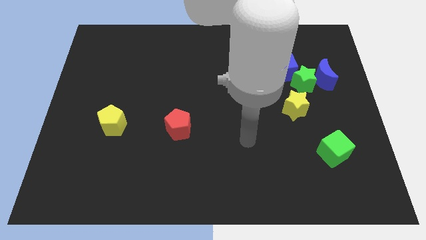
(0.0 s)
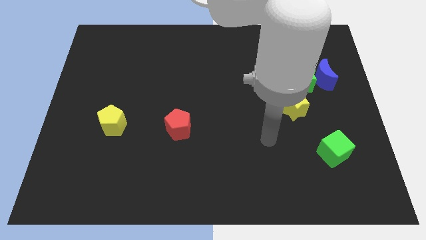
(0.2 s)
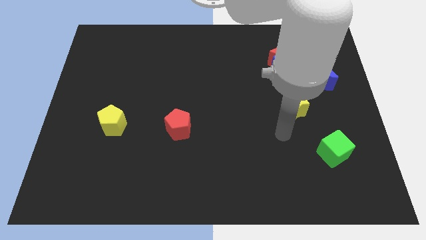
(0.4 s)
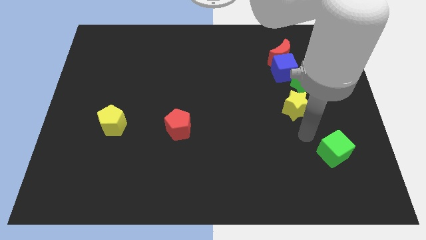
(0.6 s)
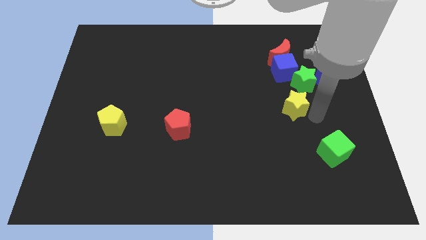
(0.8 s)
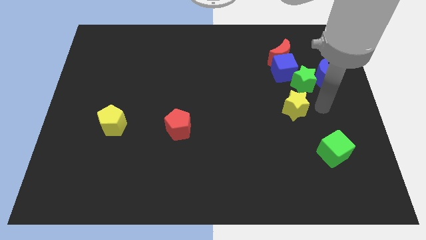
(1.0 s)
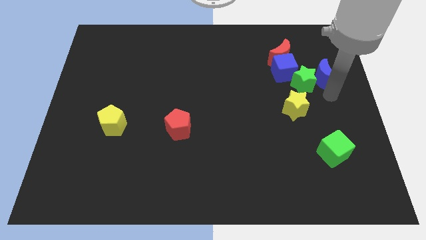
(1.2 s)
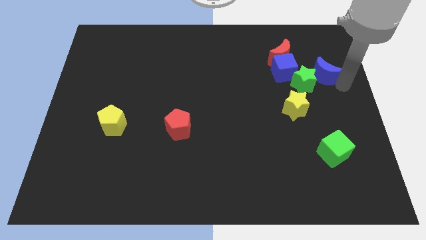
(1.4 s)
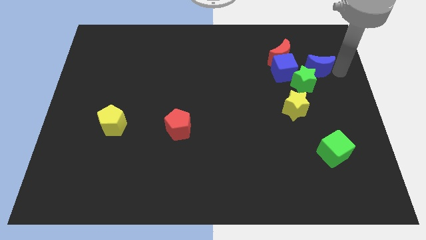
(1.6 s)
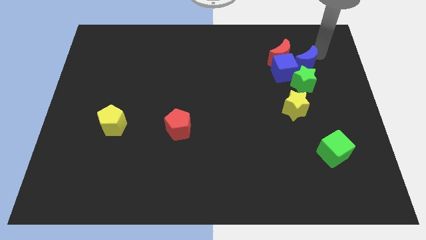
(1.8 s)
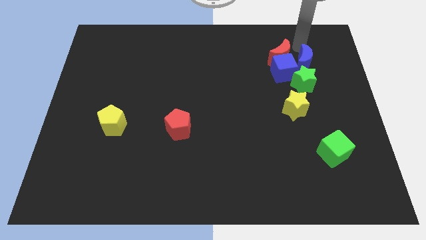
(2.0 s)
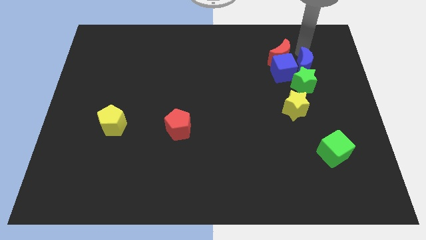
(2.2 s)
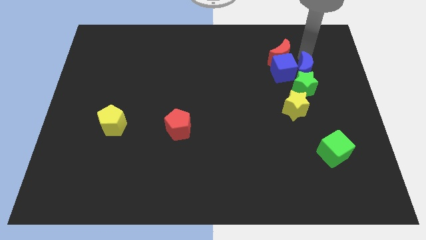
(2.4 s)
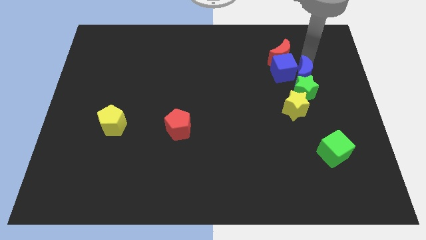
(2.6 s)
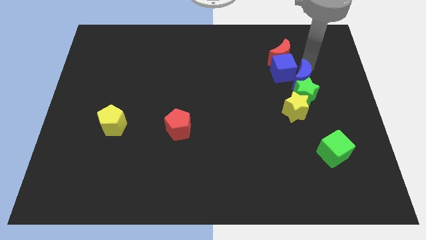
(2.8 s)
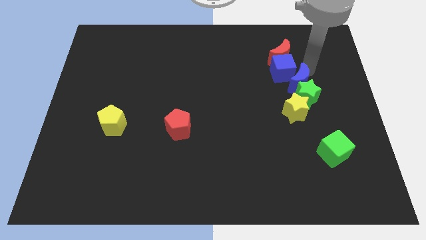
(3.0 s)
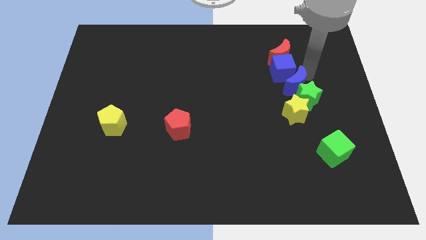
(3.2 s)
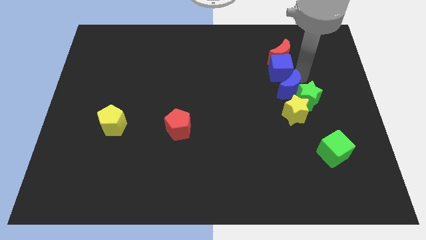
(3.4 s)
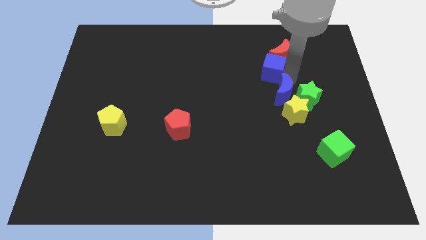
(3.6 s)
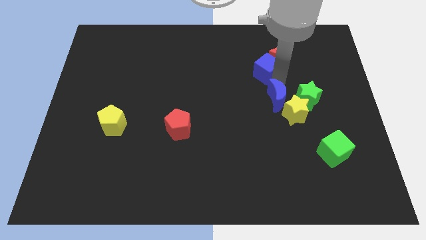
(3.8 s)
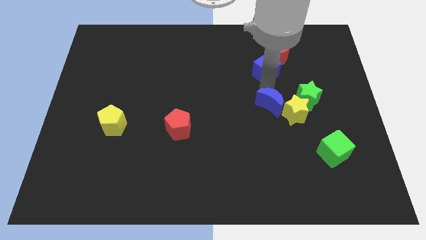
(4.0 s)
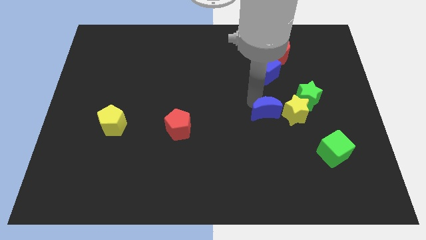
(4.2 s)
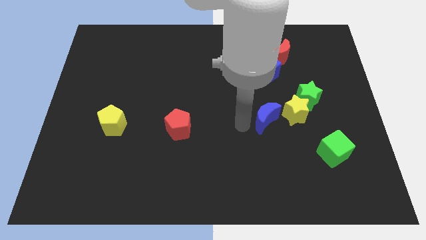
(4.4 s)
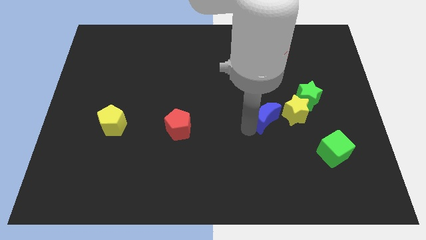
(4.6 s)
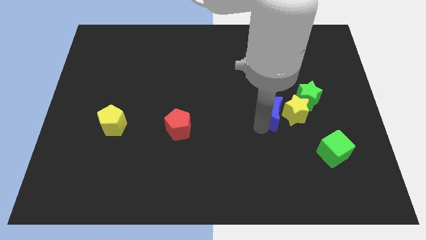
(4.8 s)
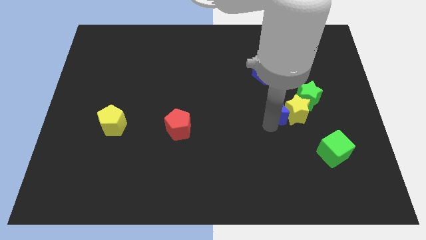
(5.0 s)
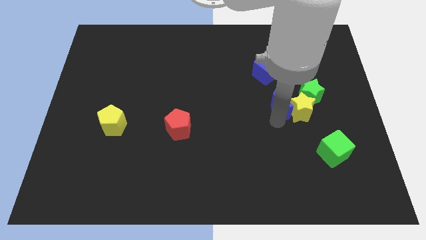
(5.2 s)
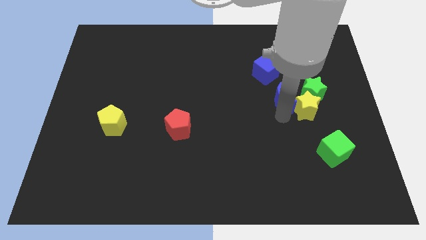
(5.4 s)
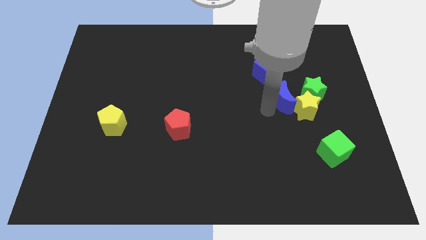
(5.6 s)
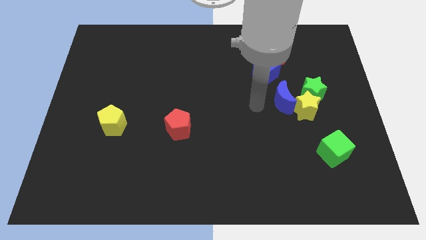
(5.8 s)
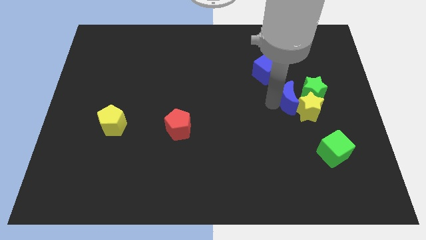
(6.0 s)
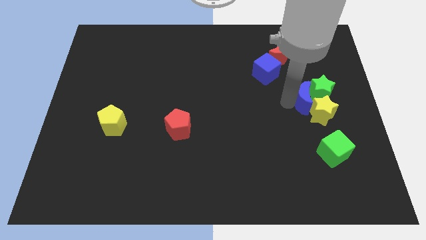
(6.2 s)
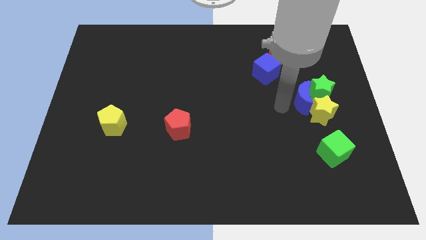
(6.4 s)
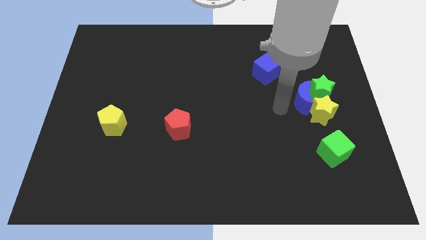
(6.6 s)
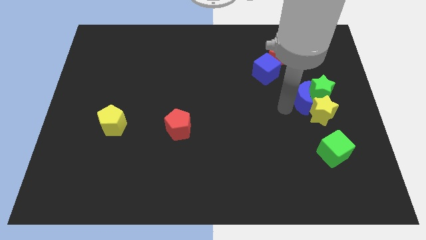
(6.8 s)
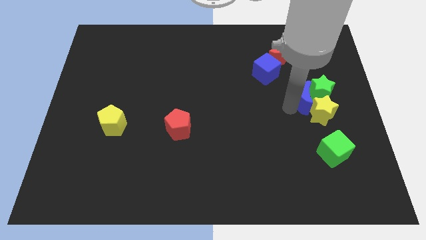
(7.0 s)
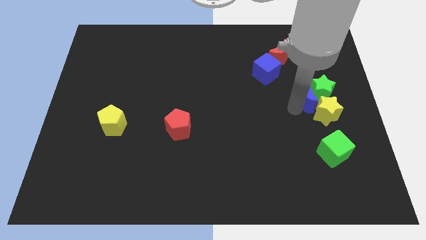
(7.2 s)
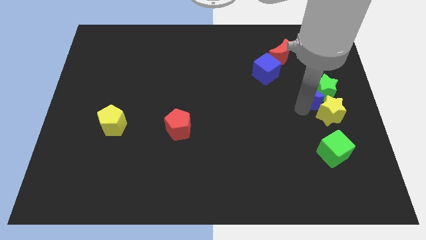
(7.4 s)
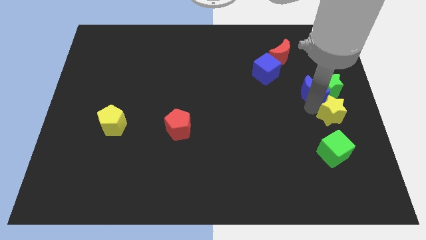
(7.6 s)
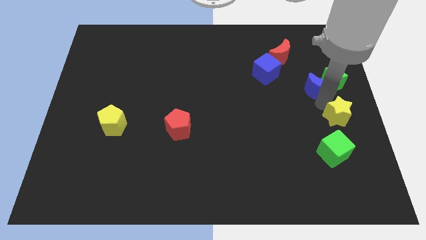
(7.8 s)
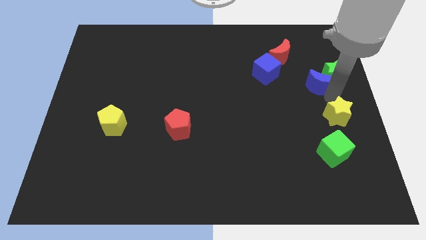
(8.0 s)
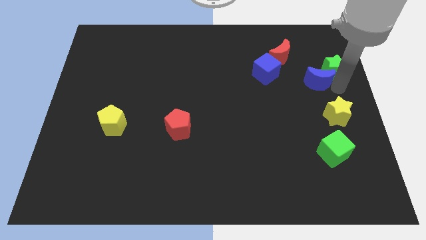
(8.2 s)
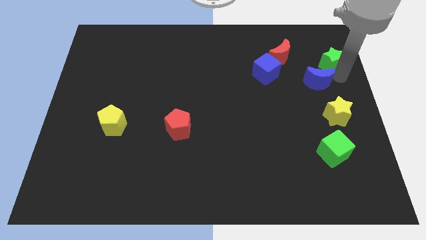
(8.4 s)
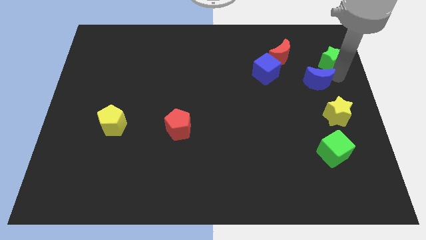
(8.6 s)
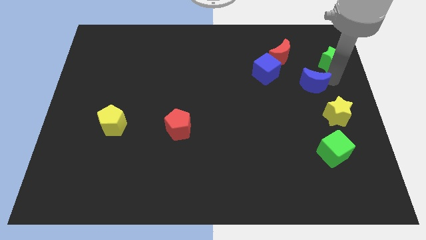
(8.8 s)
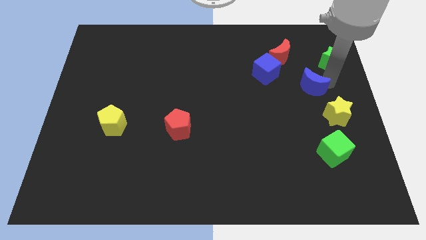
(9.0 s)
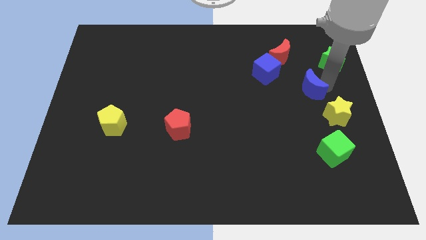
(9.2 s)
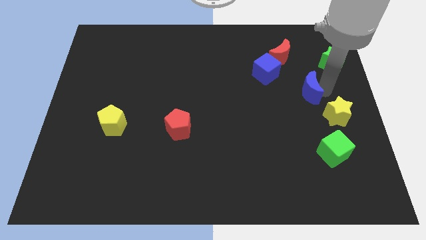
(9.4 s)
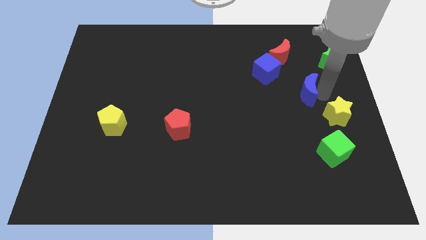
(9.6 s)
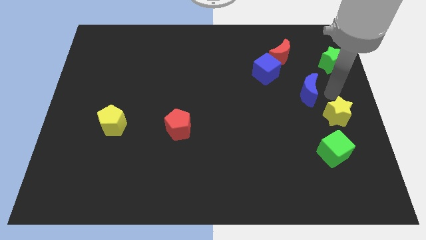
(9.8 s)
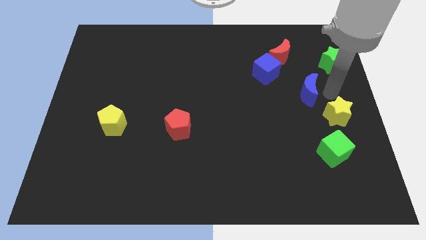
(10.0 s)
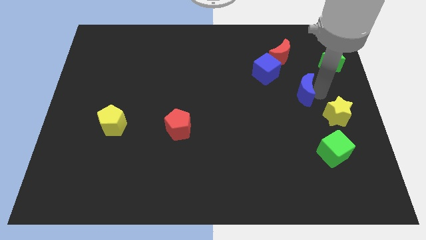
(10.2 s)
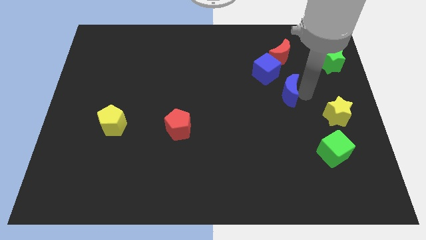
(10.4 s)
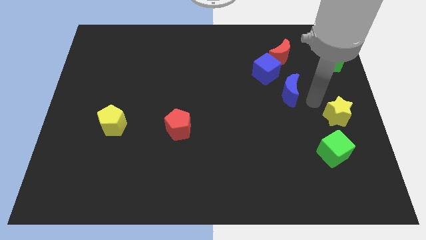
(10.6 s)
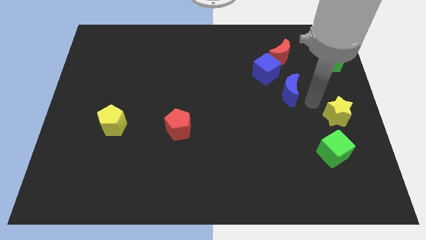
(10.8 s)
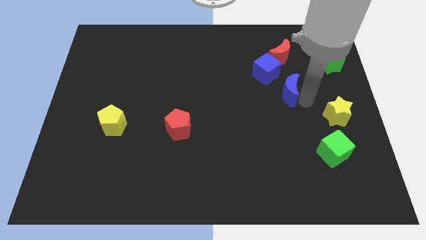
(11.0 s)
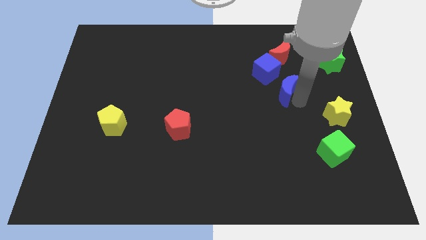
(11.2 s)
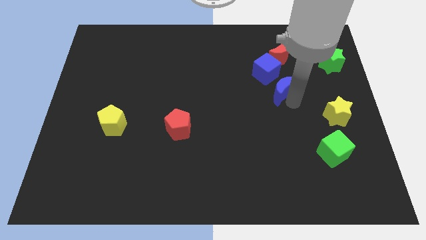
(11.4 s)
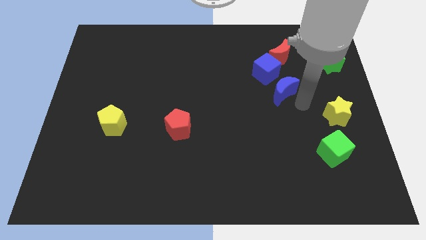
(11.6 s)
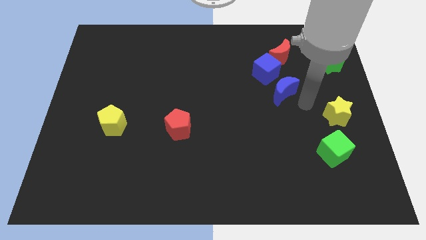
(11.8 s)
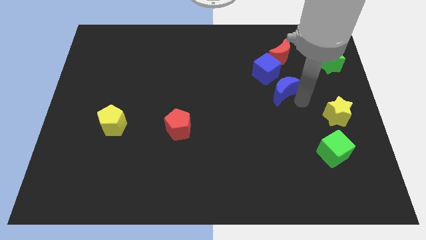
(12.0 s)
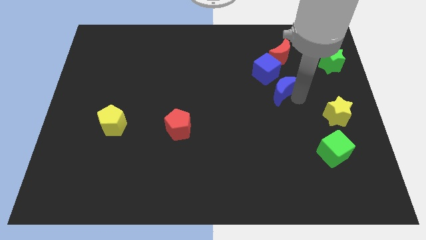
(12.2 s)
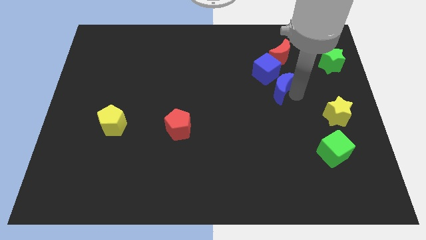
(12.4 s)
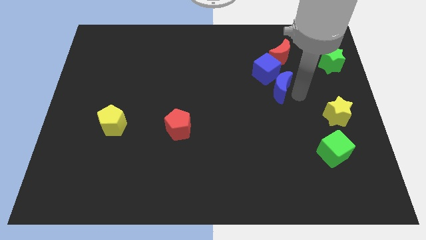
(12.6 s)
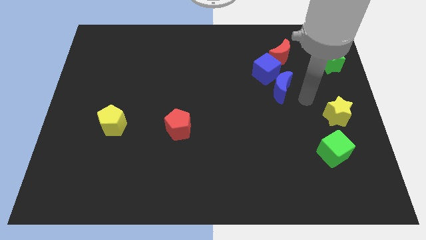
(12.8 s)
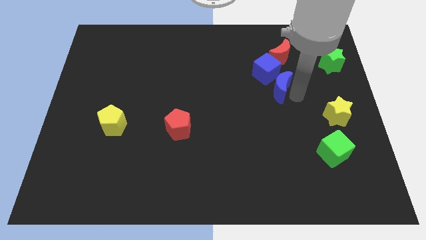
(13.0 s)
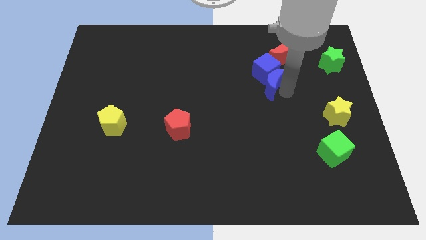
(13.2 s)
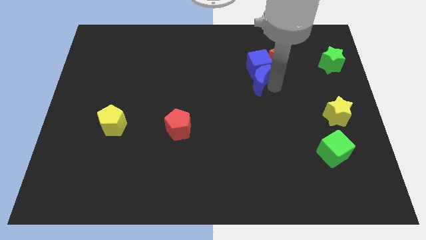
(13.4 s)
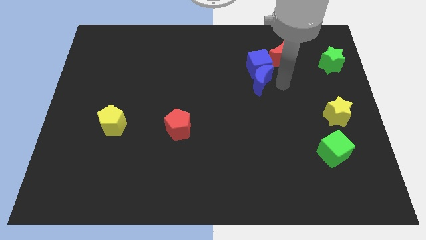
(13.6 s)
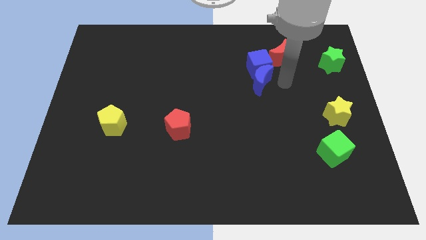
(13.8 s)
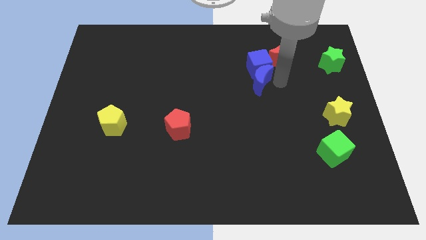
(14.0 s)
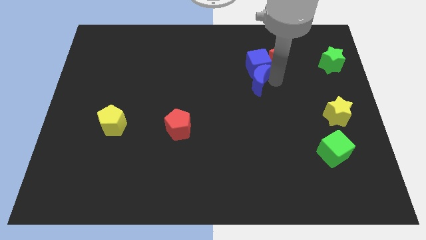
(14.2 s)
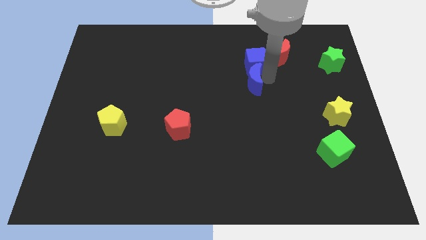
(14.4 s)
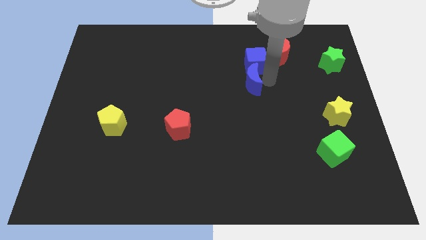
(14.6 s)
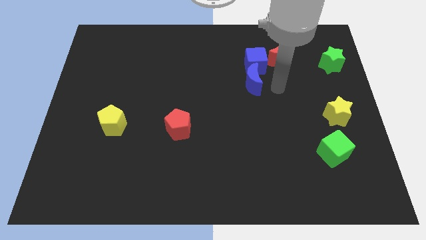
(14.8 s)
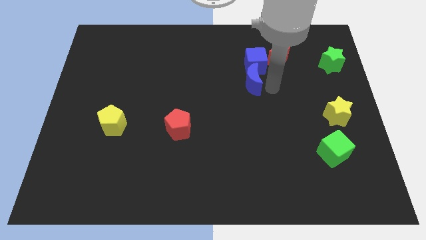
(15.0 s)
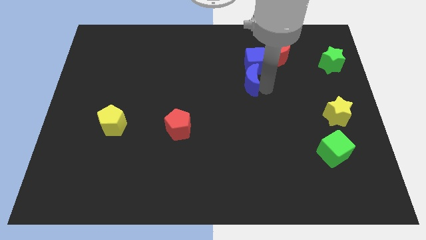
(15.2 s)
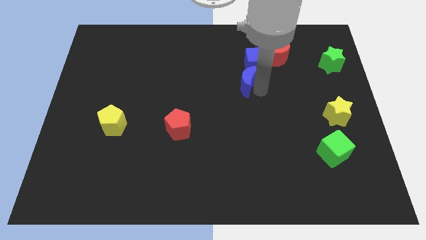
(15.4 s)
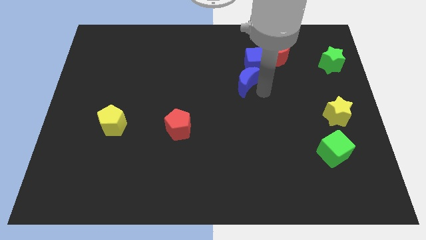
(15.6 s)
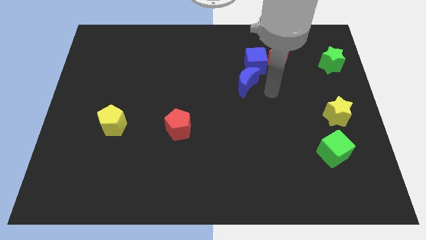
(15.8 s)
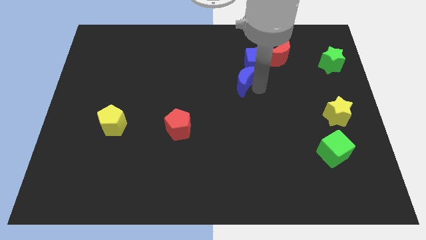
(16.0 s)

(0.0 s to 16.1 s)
slide the blue moon left
